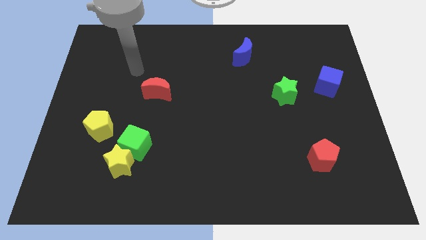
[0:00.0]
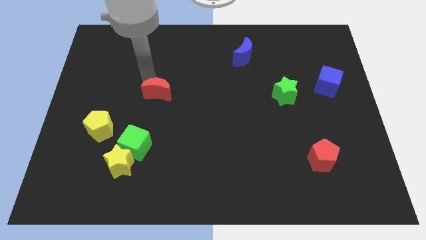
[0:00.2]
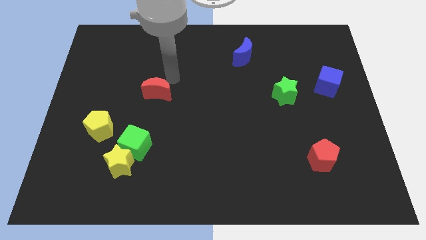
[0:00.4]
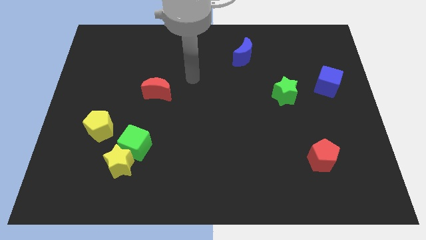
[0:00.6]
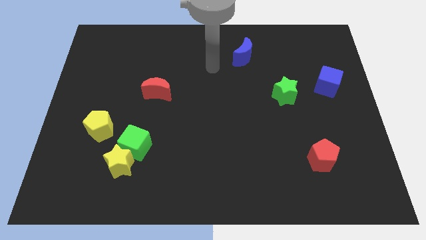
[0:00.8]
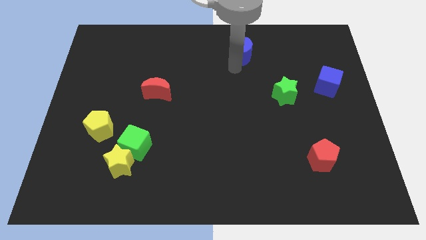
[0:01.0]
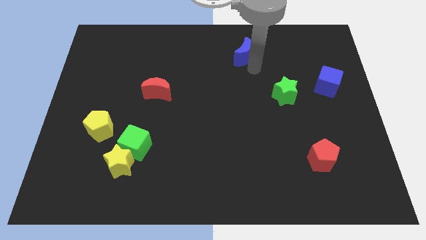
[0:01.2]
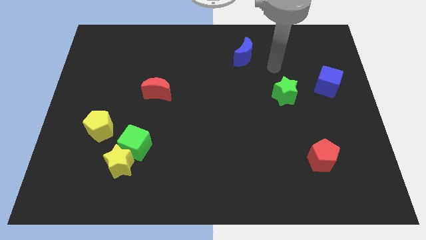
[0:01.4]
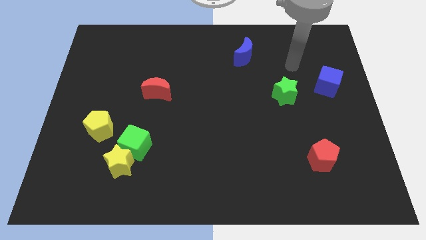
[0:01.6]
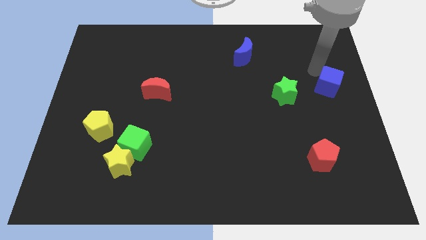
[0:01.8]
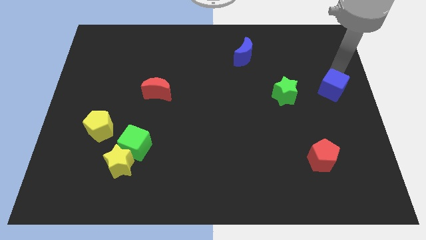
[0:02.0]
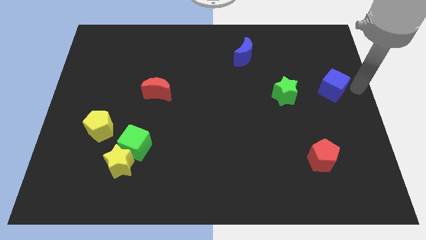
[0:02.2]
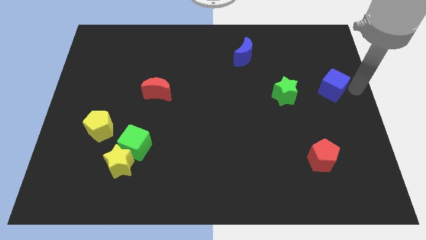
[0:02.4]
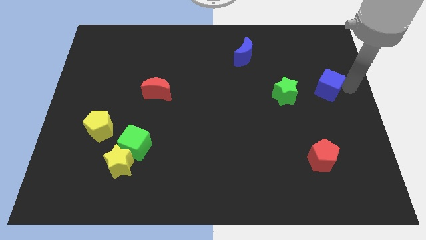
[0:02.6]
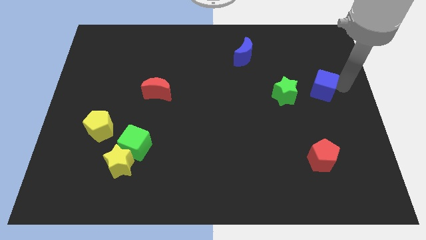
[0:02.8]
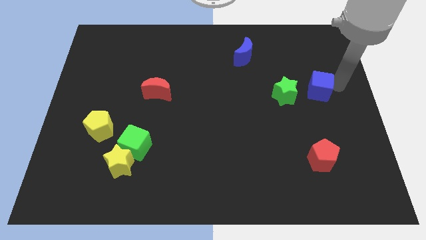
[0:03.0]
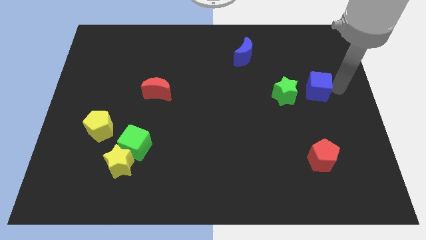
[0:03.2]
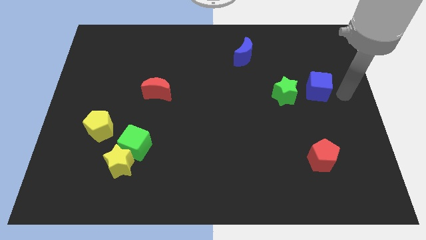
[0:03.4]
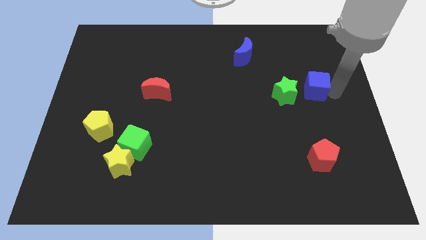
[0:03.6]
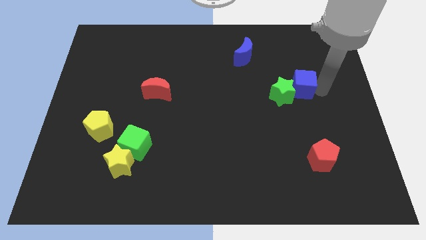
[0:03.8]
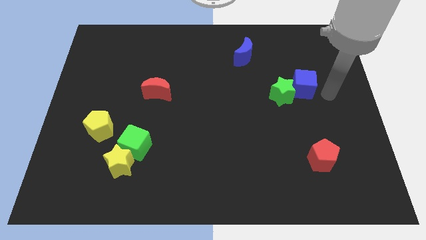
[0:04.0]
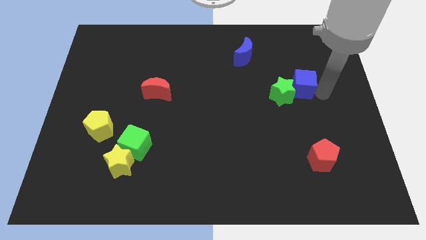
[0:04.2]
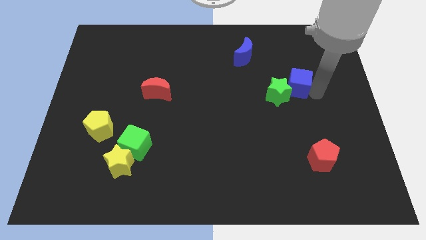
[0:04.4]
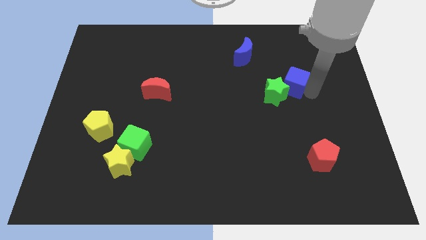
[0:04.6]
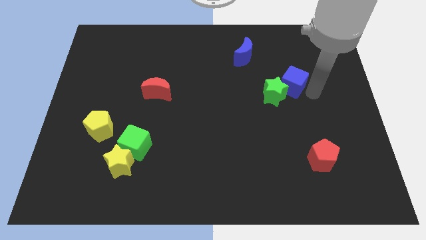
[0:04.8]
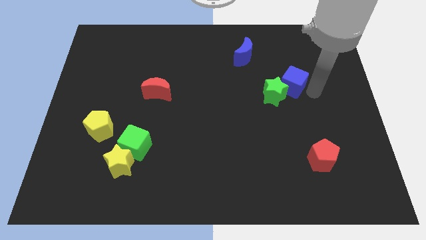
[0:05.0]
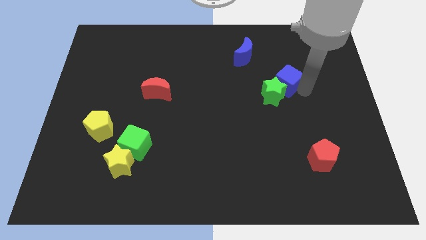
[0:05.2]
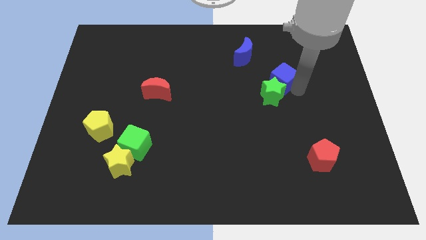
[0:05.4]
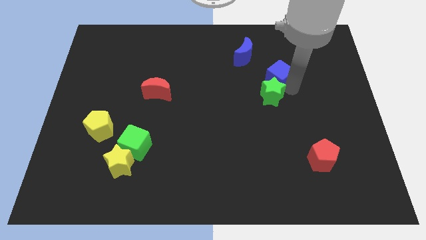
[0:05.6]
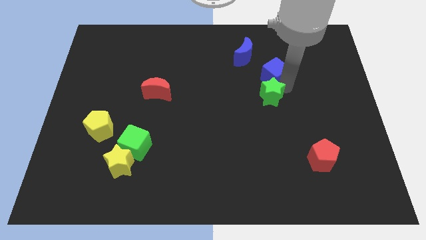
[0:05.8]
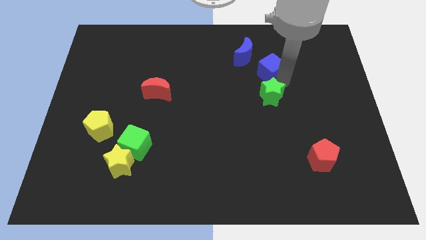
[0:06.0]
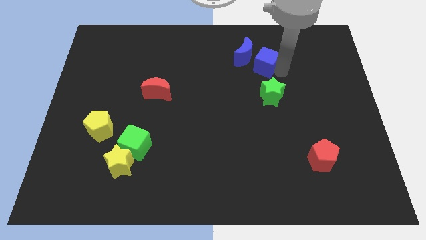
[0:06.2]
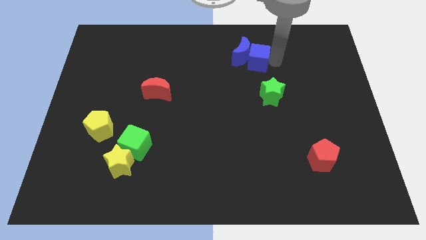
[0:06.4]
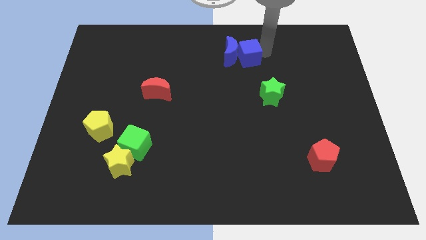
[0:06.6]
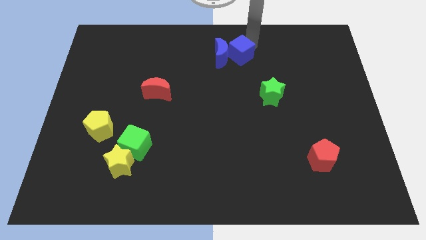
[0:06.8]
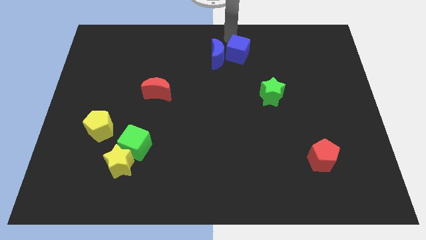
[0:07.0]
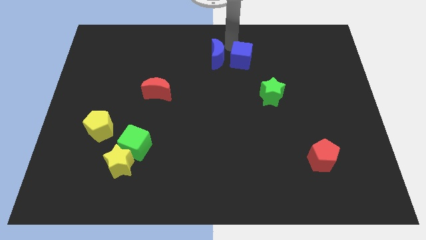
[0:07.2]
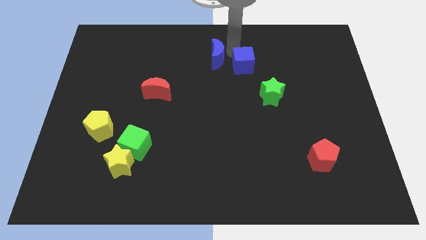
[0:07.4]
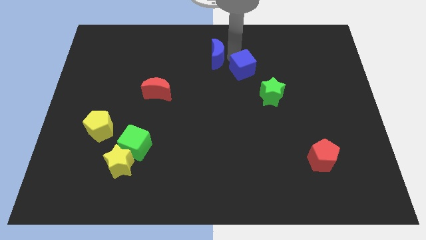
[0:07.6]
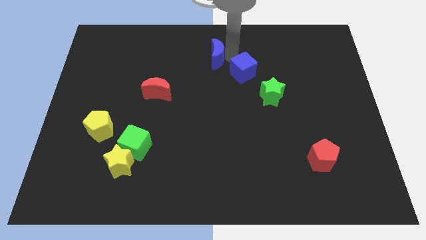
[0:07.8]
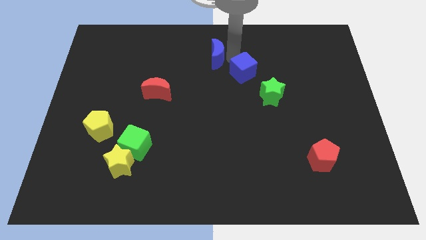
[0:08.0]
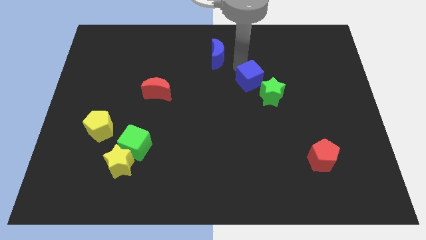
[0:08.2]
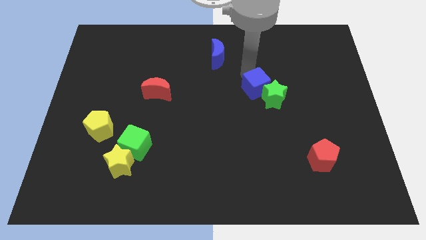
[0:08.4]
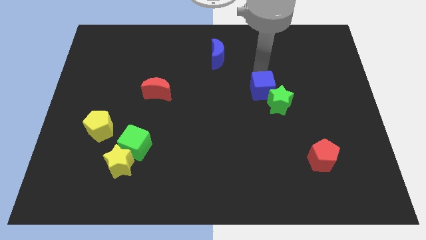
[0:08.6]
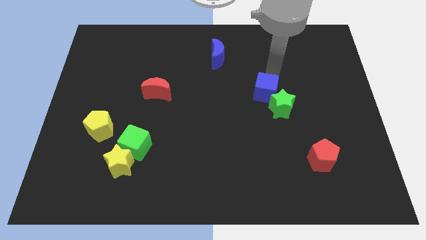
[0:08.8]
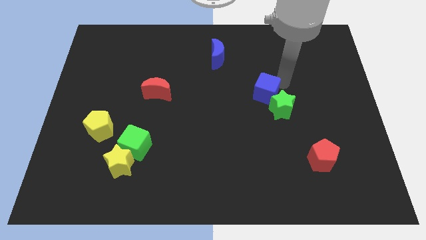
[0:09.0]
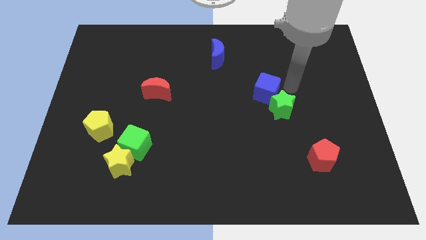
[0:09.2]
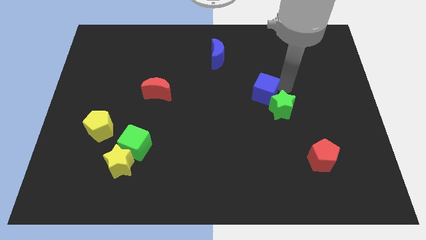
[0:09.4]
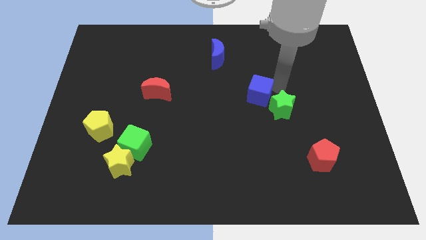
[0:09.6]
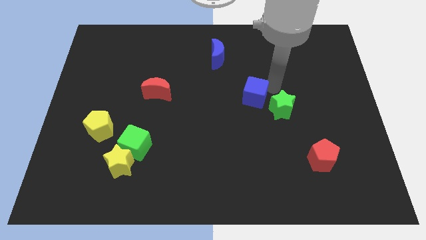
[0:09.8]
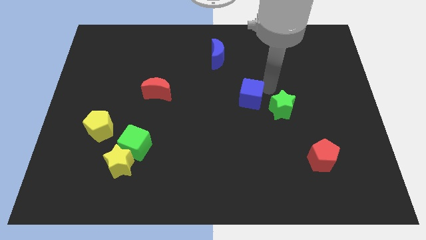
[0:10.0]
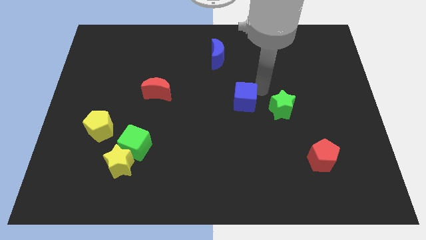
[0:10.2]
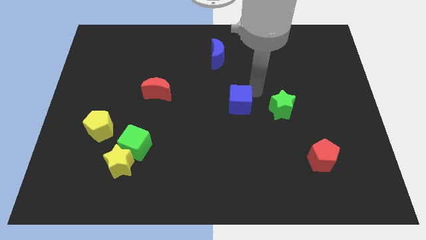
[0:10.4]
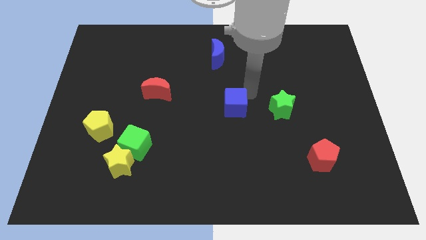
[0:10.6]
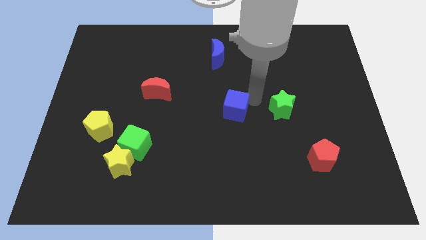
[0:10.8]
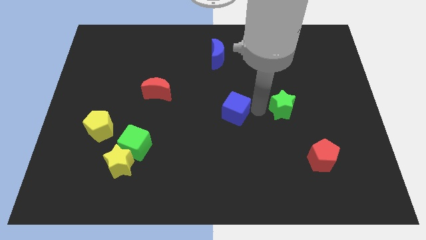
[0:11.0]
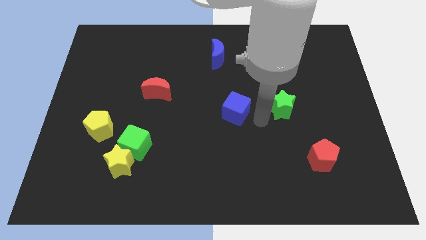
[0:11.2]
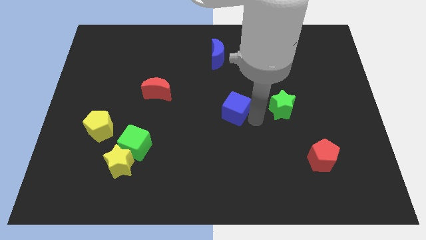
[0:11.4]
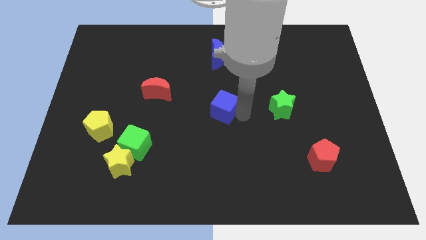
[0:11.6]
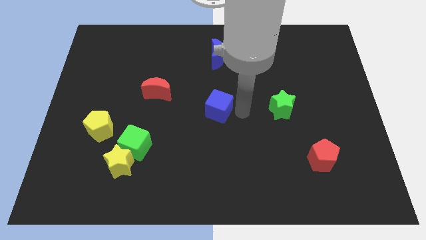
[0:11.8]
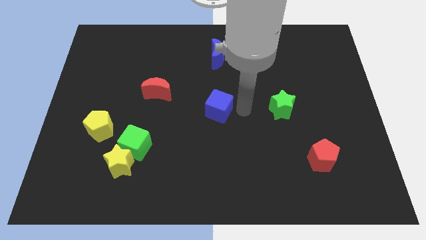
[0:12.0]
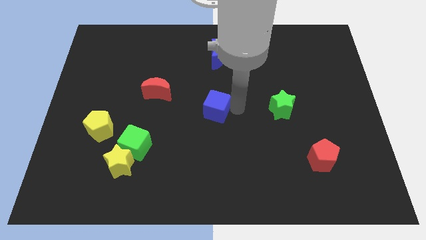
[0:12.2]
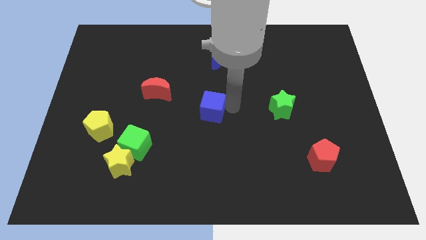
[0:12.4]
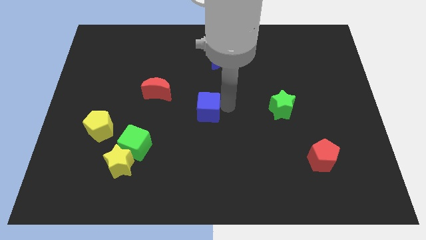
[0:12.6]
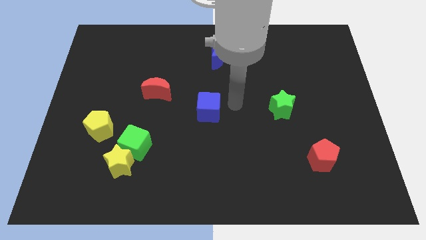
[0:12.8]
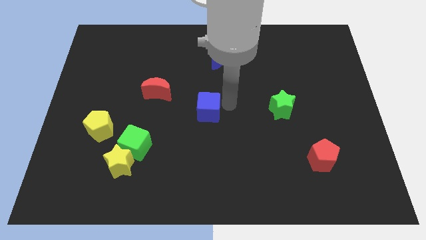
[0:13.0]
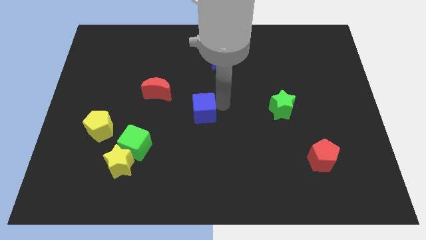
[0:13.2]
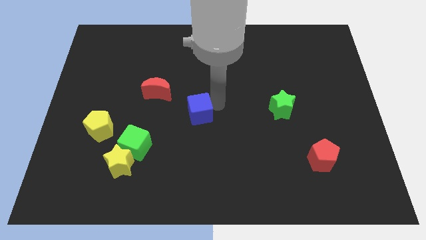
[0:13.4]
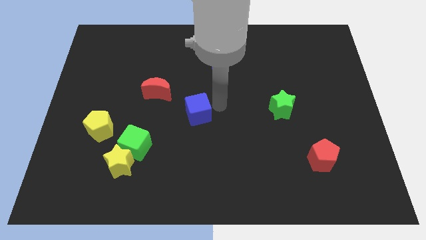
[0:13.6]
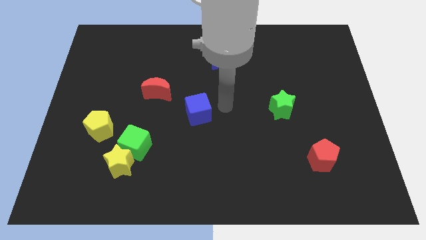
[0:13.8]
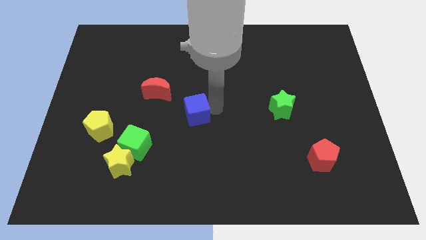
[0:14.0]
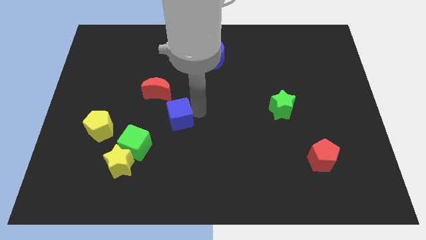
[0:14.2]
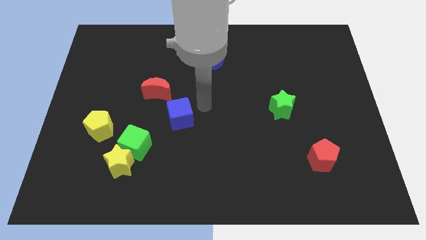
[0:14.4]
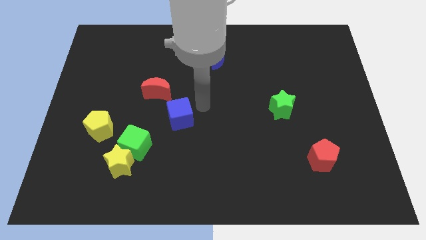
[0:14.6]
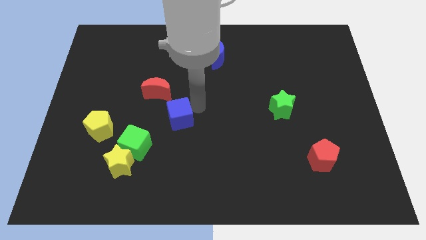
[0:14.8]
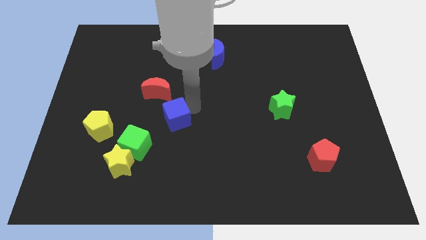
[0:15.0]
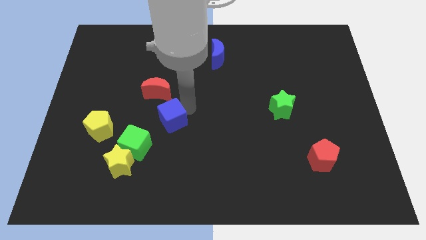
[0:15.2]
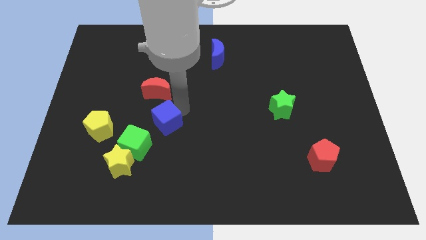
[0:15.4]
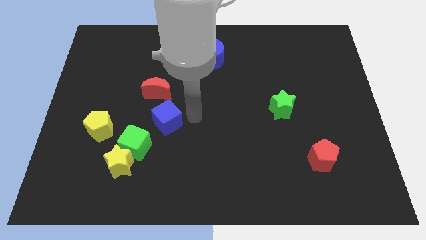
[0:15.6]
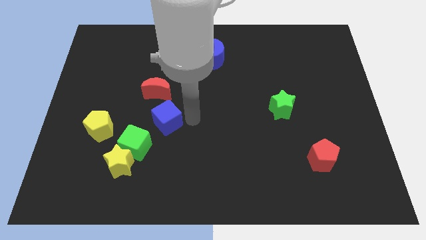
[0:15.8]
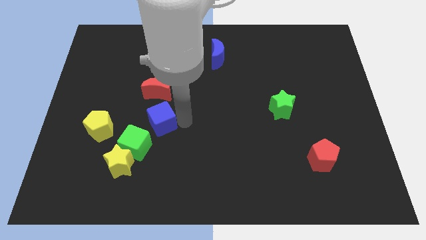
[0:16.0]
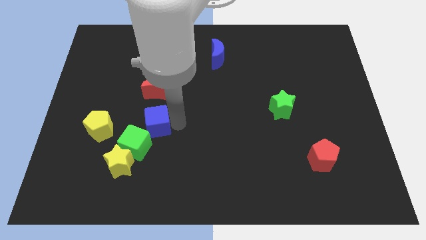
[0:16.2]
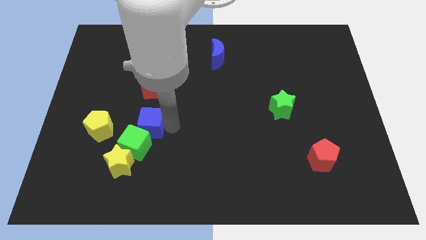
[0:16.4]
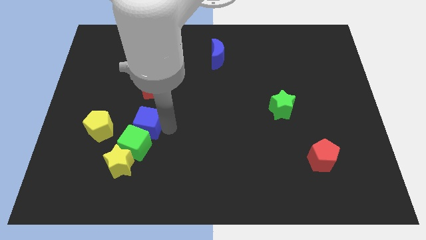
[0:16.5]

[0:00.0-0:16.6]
slide the blue cube to the top of the yellow star
